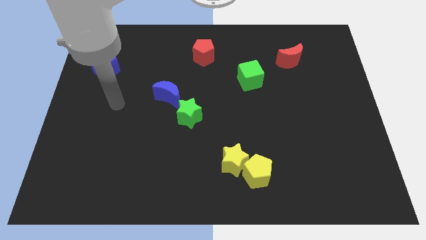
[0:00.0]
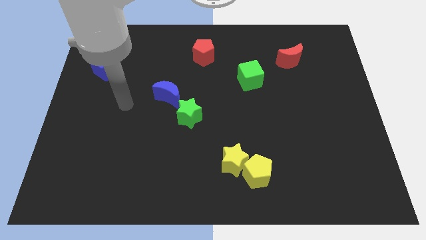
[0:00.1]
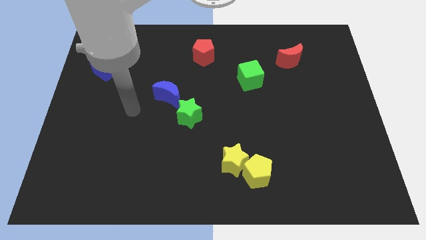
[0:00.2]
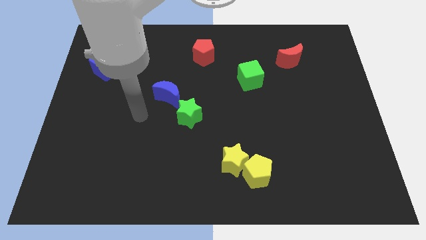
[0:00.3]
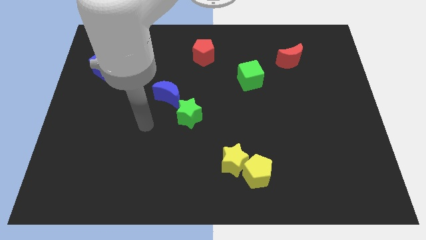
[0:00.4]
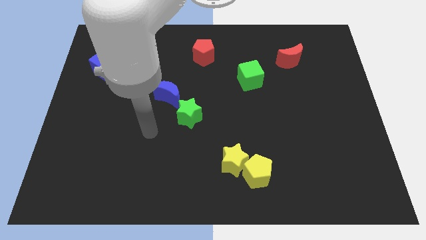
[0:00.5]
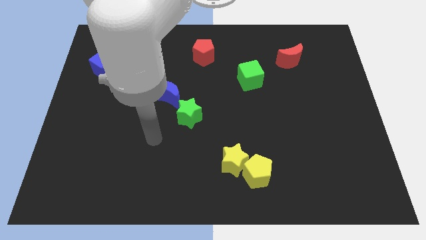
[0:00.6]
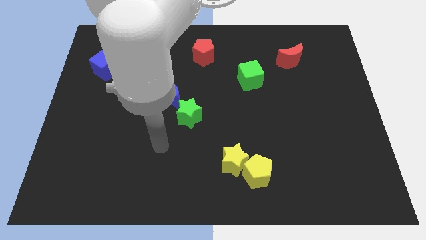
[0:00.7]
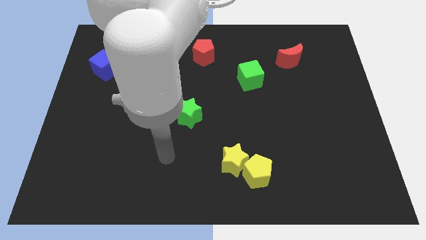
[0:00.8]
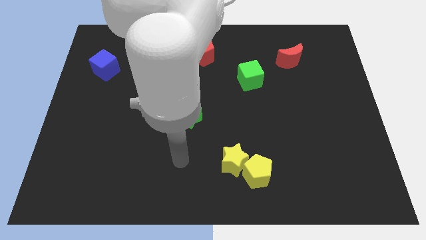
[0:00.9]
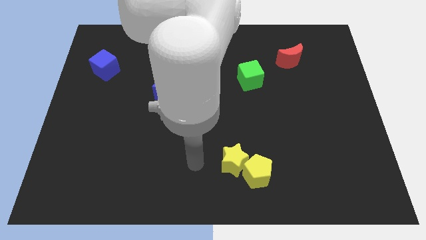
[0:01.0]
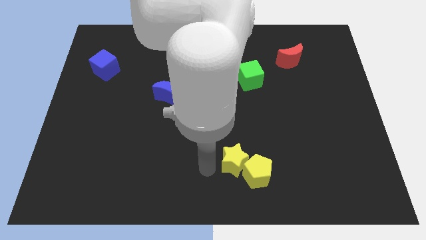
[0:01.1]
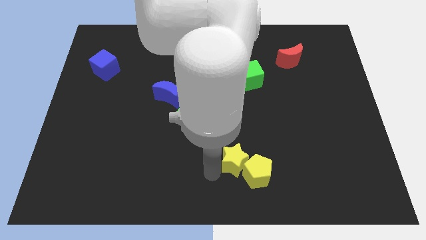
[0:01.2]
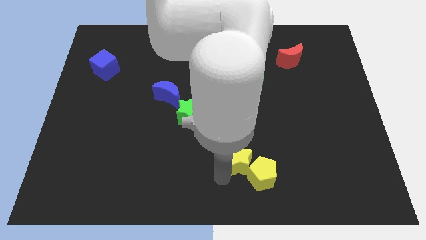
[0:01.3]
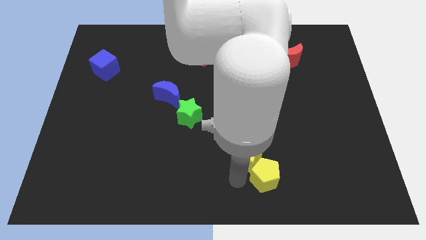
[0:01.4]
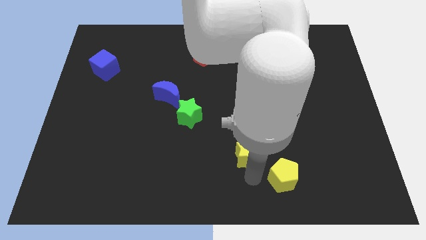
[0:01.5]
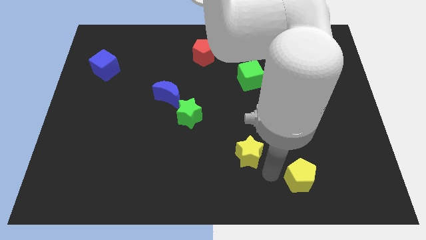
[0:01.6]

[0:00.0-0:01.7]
separate the yellow star from the yellow pentagon

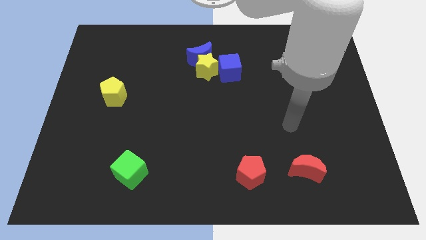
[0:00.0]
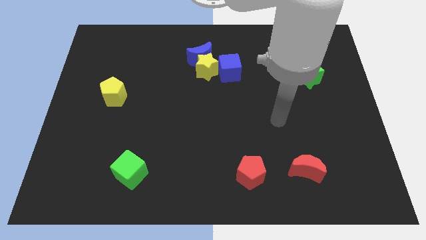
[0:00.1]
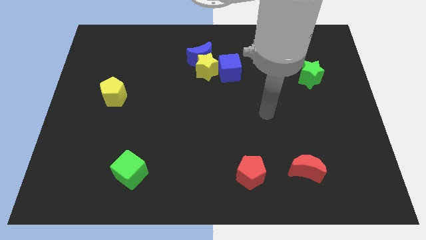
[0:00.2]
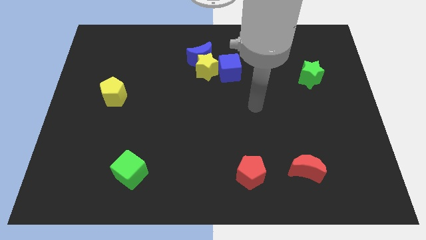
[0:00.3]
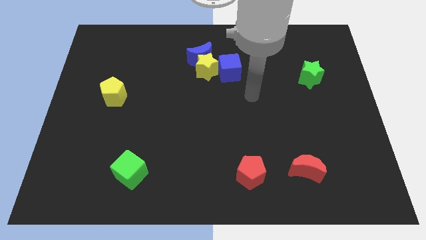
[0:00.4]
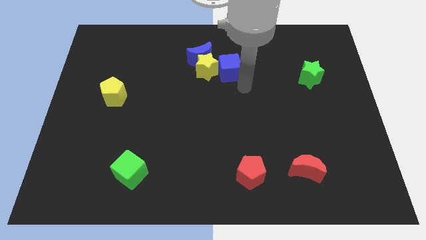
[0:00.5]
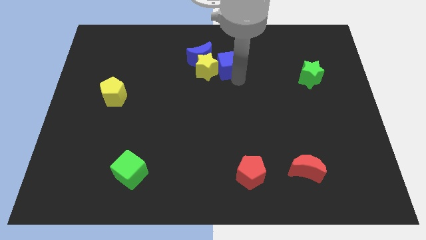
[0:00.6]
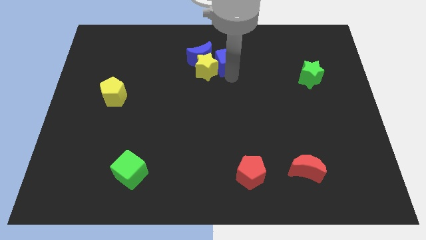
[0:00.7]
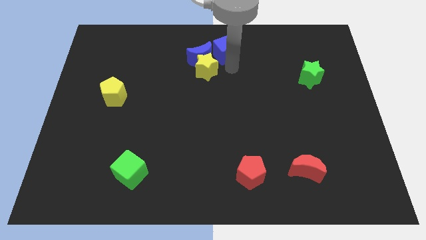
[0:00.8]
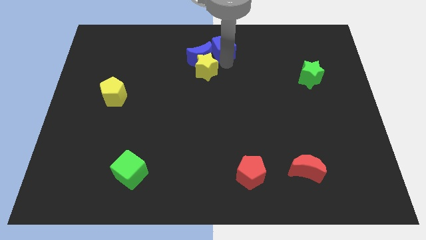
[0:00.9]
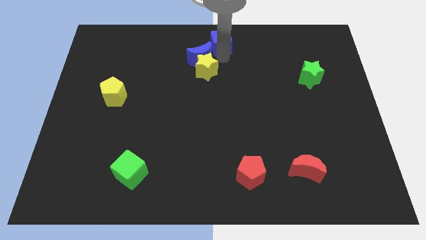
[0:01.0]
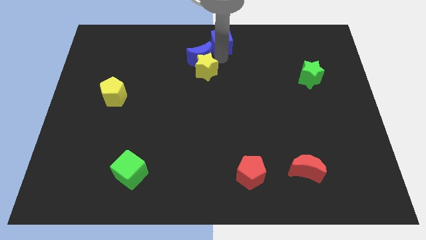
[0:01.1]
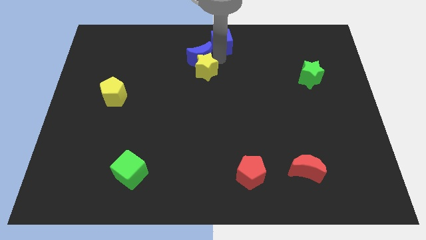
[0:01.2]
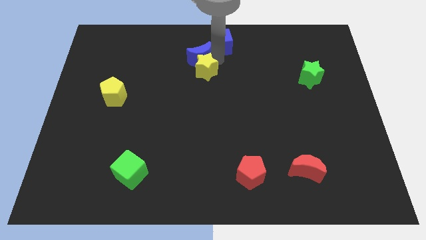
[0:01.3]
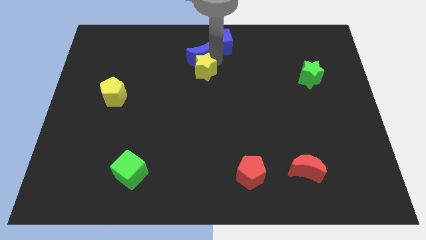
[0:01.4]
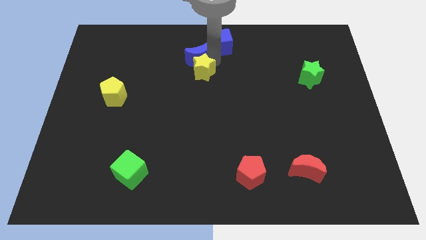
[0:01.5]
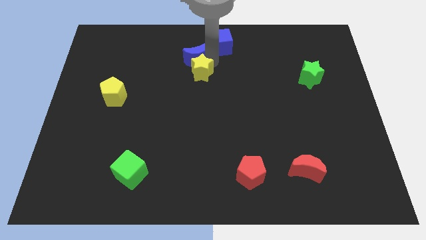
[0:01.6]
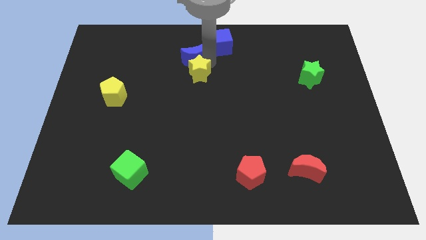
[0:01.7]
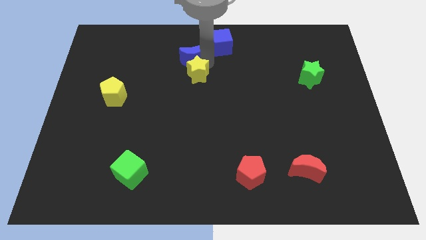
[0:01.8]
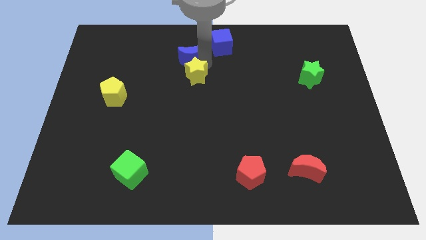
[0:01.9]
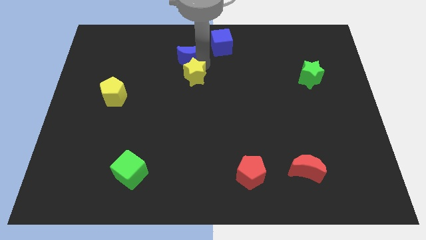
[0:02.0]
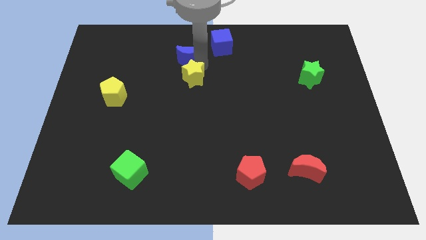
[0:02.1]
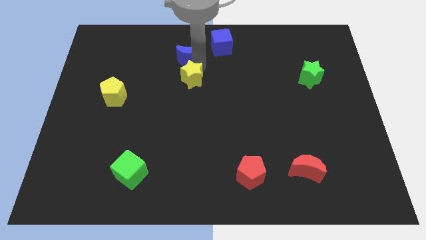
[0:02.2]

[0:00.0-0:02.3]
move the yellow star away from the blue moon and blue cube

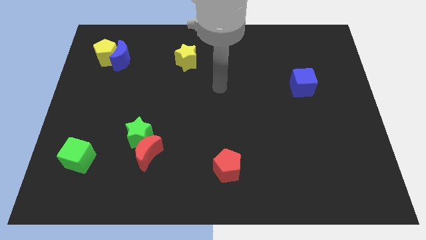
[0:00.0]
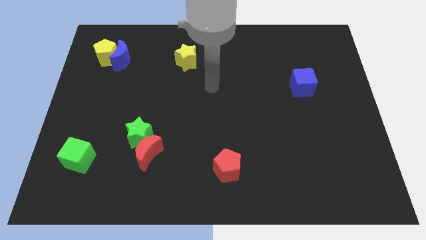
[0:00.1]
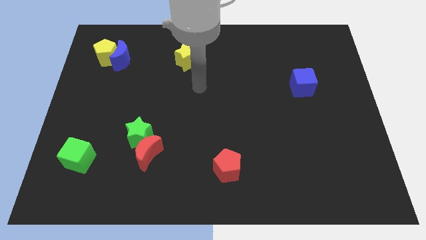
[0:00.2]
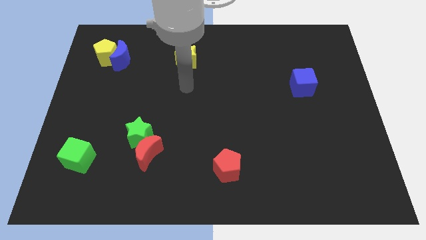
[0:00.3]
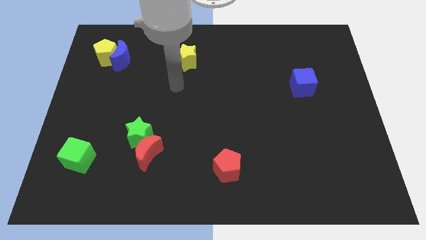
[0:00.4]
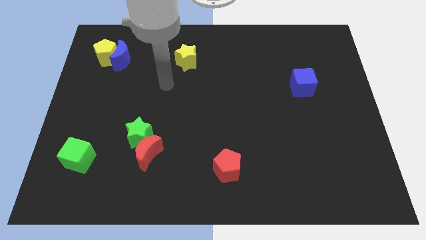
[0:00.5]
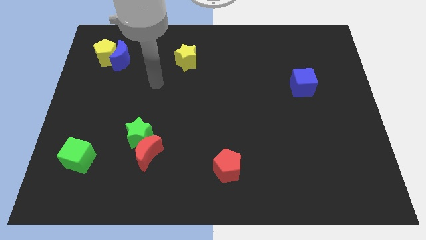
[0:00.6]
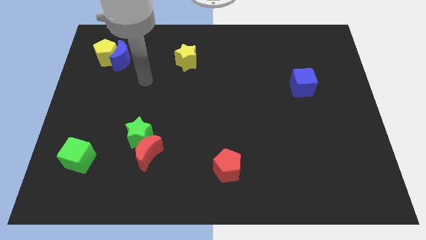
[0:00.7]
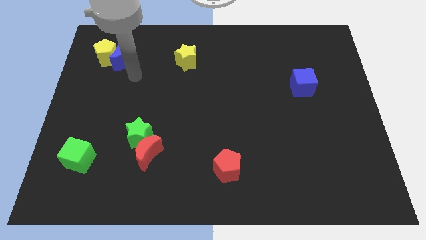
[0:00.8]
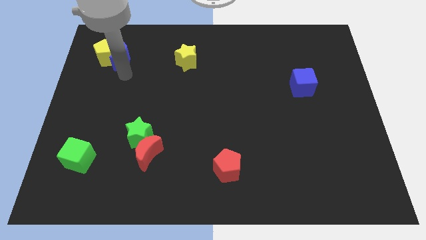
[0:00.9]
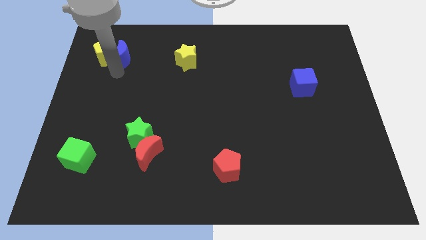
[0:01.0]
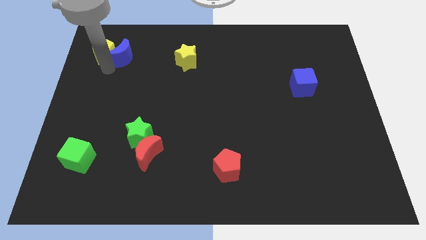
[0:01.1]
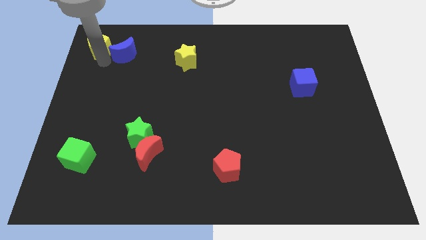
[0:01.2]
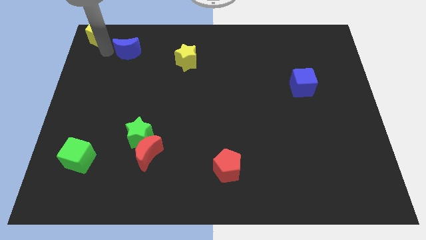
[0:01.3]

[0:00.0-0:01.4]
separate the blue moon from the yellow pentagon

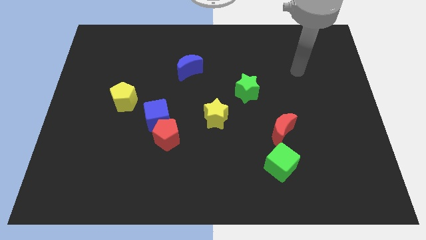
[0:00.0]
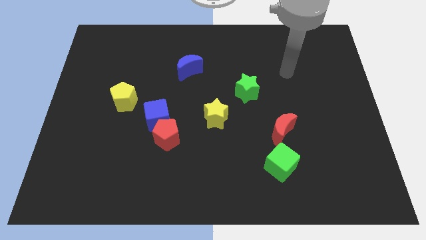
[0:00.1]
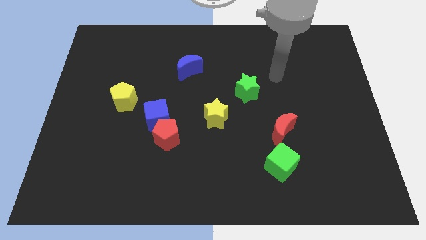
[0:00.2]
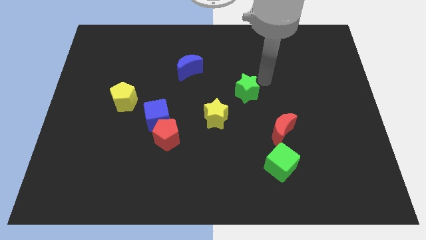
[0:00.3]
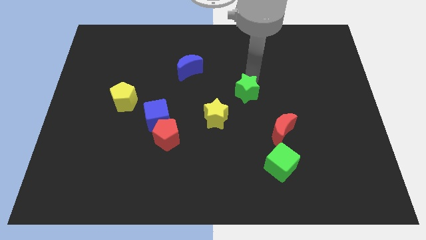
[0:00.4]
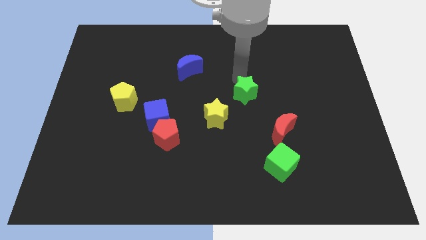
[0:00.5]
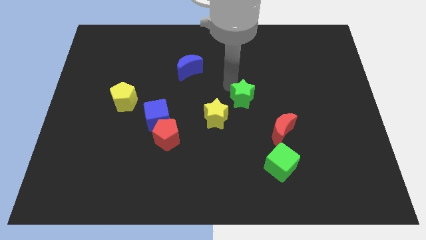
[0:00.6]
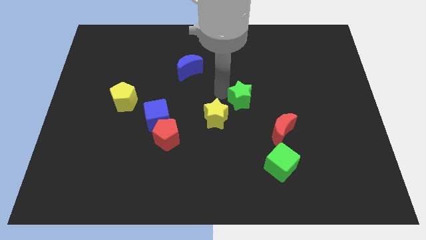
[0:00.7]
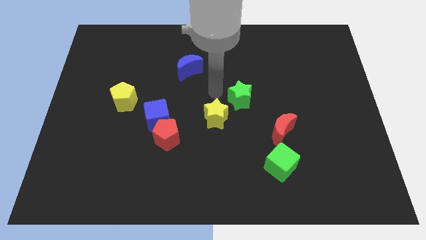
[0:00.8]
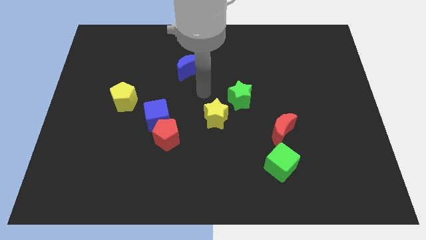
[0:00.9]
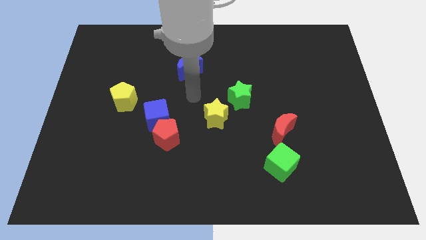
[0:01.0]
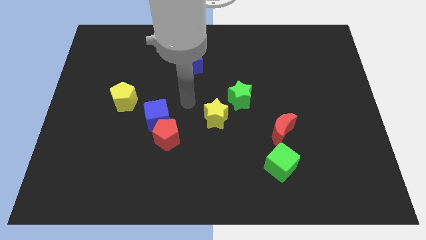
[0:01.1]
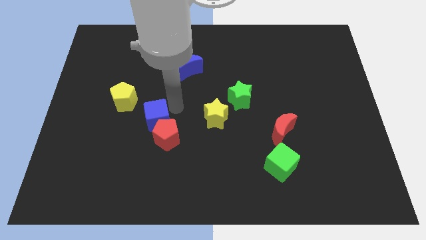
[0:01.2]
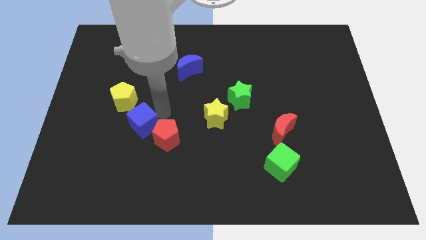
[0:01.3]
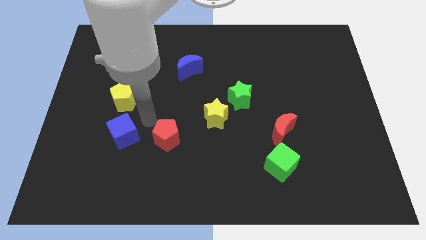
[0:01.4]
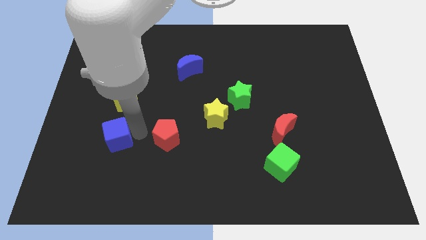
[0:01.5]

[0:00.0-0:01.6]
pull the red pentagon apart from the blue cube

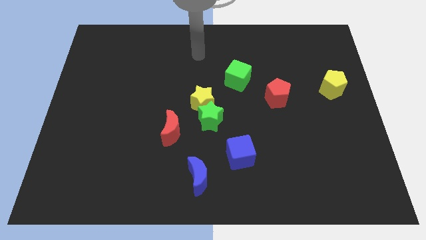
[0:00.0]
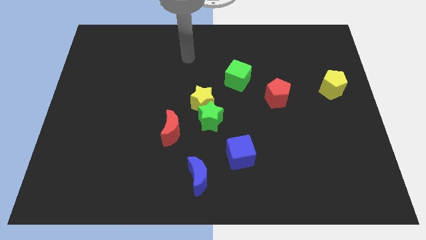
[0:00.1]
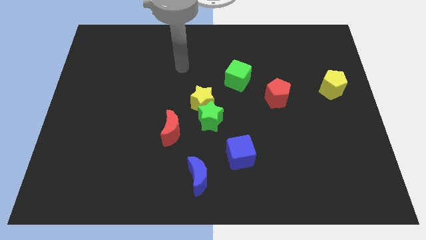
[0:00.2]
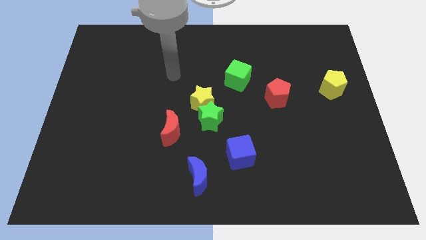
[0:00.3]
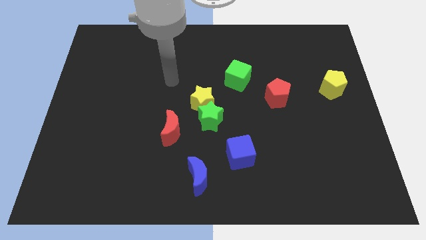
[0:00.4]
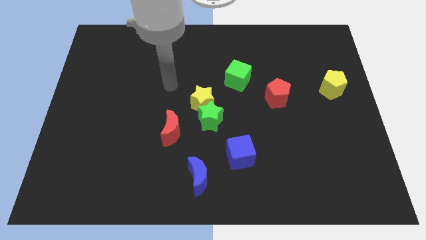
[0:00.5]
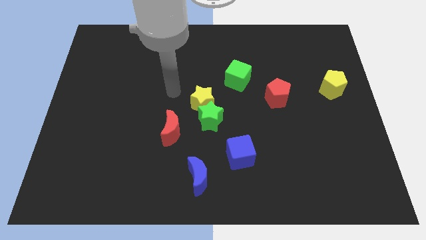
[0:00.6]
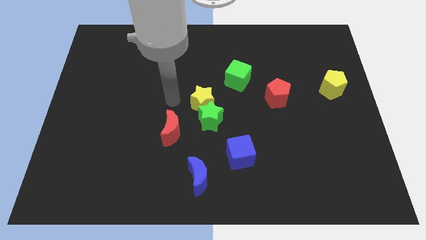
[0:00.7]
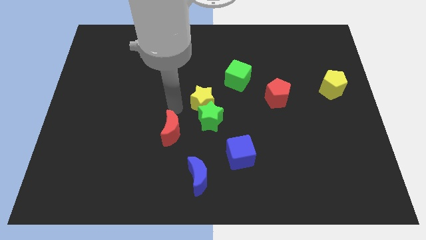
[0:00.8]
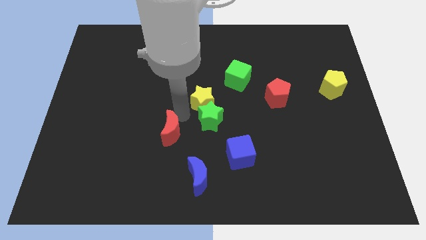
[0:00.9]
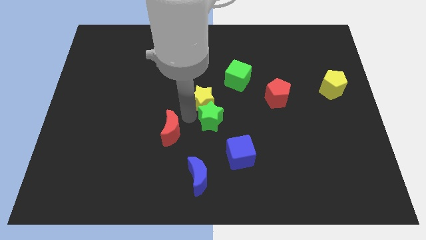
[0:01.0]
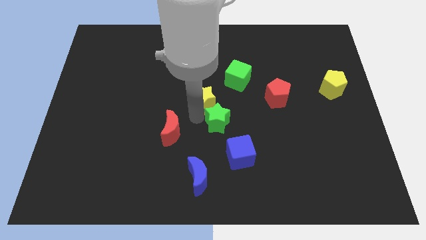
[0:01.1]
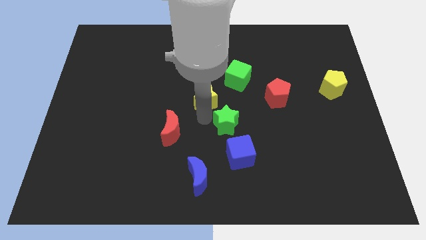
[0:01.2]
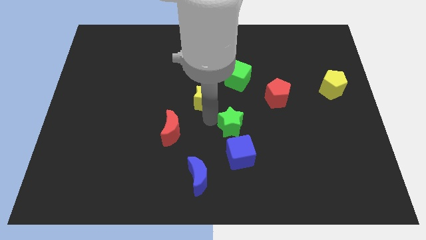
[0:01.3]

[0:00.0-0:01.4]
separate the green star from the yellow star and red moon

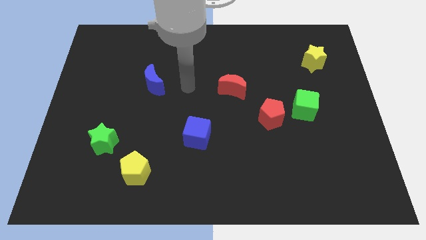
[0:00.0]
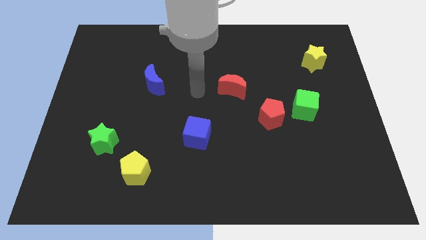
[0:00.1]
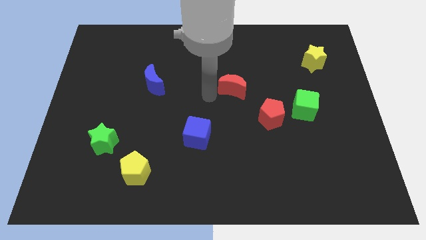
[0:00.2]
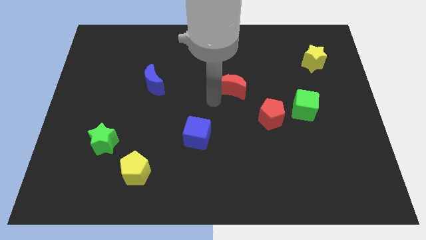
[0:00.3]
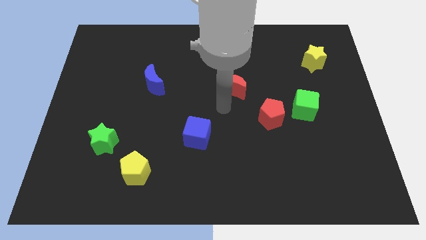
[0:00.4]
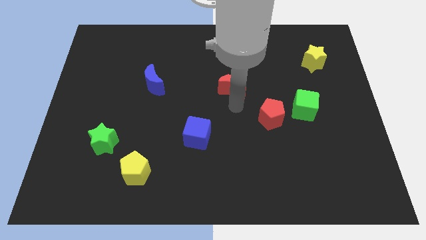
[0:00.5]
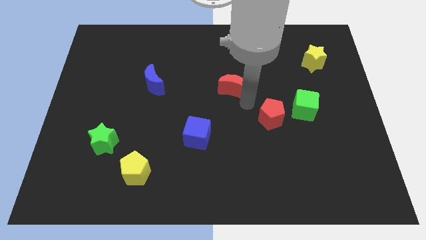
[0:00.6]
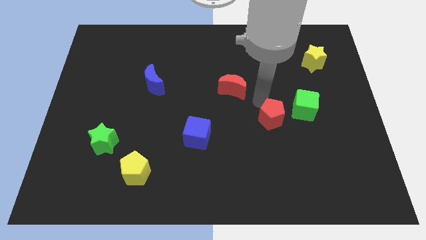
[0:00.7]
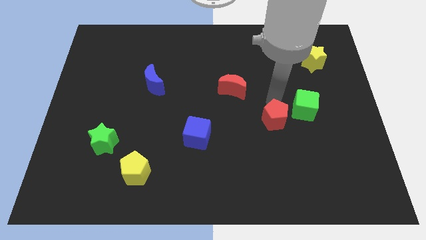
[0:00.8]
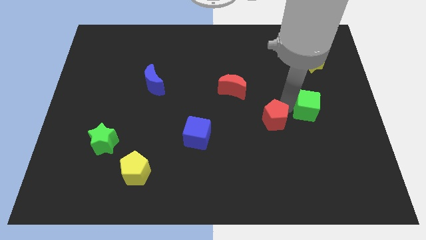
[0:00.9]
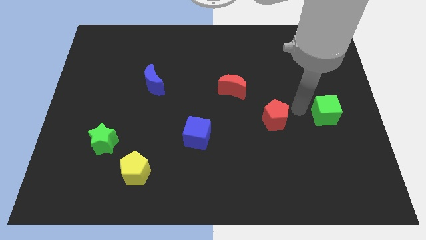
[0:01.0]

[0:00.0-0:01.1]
move the red pentagon away from the green cube
